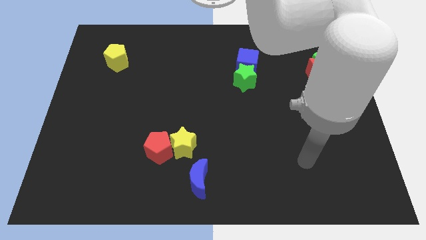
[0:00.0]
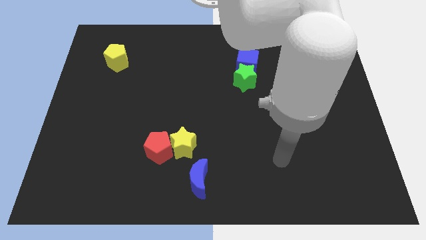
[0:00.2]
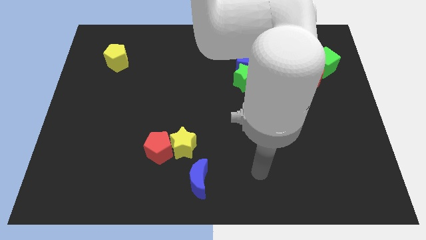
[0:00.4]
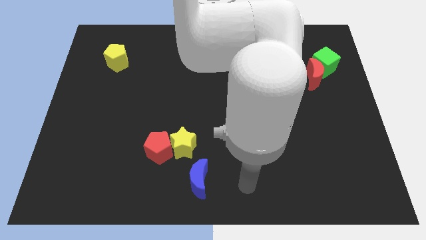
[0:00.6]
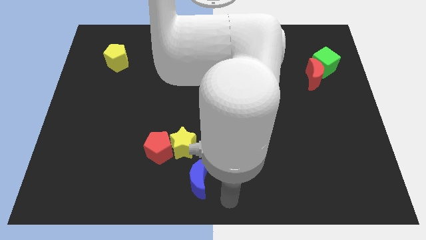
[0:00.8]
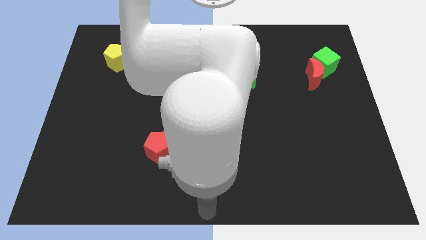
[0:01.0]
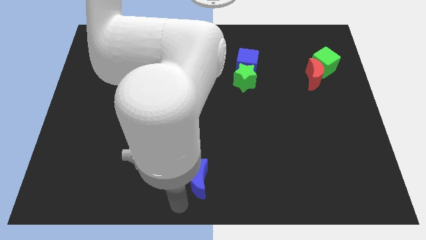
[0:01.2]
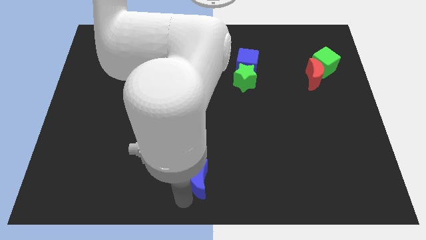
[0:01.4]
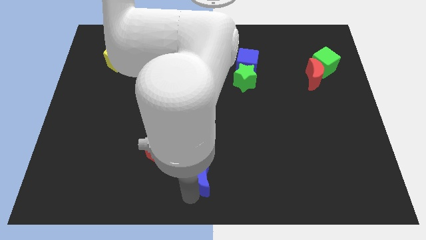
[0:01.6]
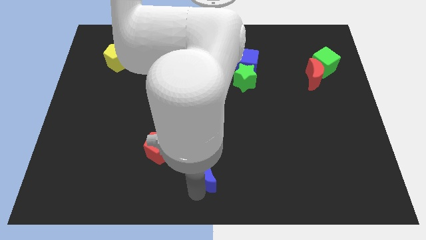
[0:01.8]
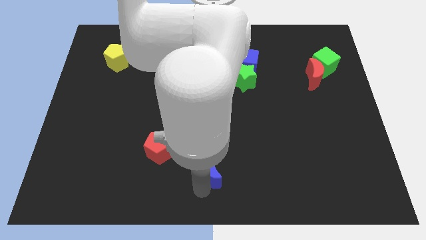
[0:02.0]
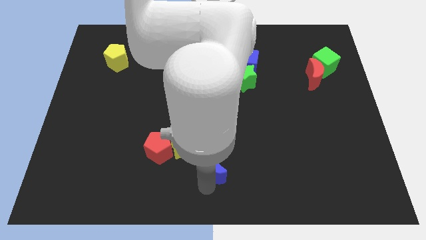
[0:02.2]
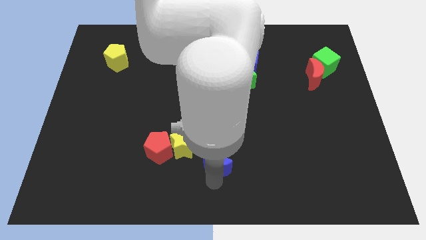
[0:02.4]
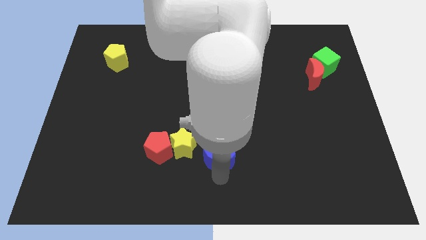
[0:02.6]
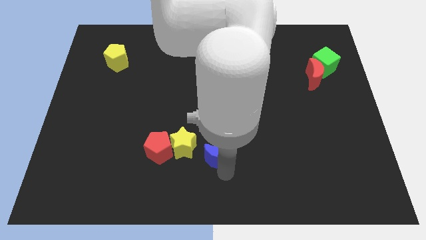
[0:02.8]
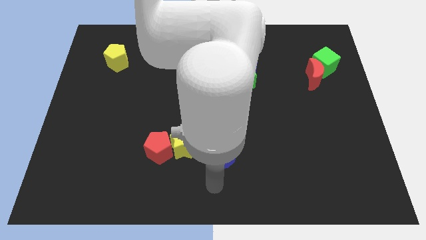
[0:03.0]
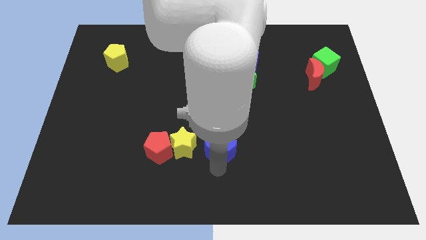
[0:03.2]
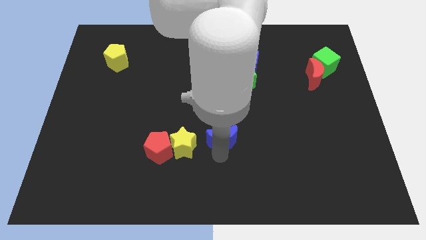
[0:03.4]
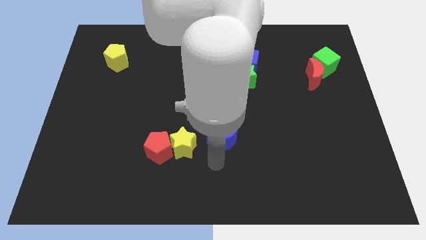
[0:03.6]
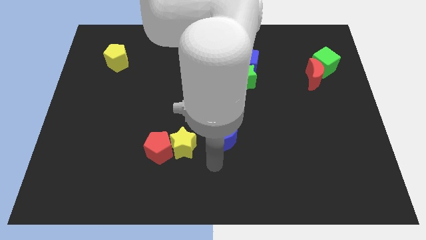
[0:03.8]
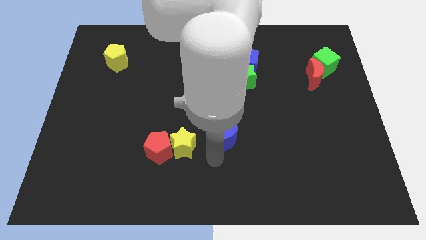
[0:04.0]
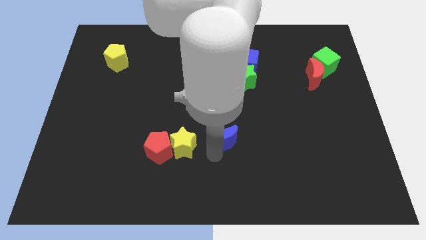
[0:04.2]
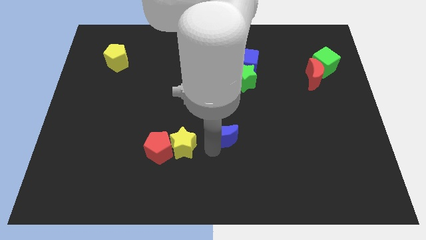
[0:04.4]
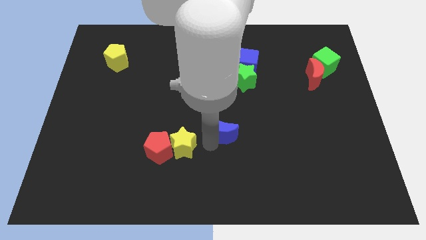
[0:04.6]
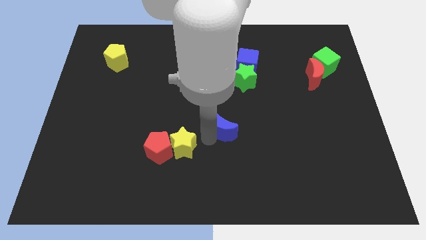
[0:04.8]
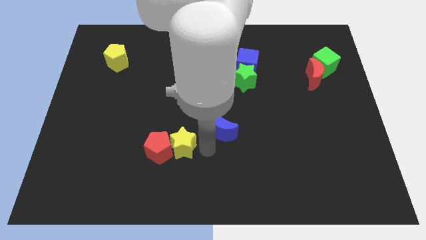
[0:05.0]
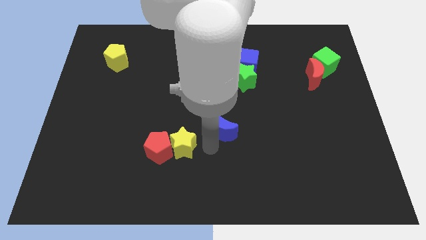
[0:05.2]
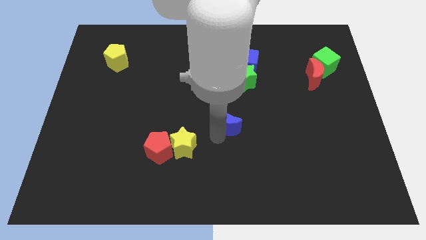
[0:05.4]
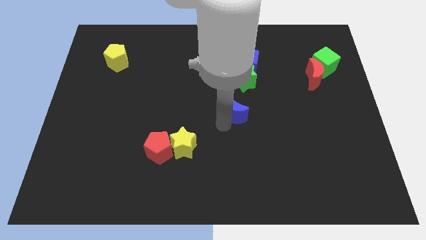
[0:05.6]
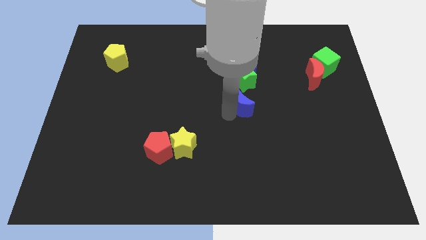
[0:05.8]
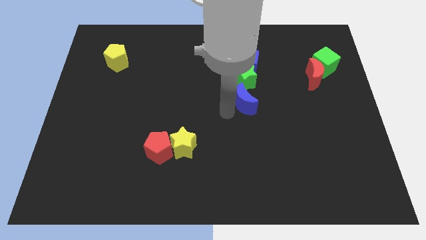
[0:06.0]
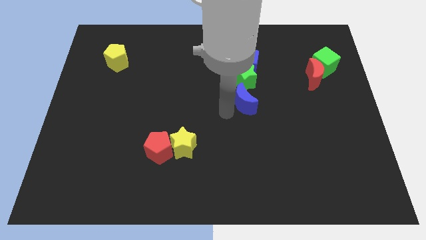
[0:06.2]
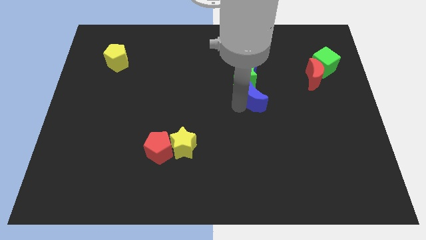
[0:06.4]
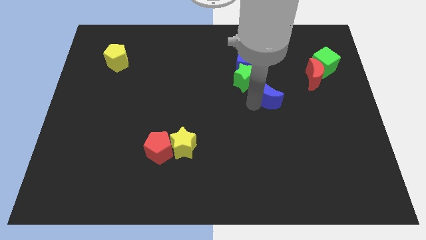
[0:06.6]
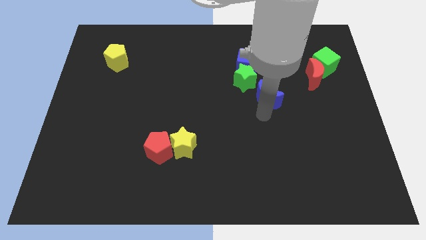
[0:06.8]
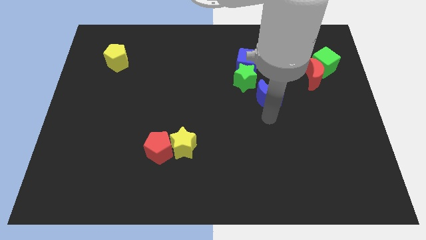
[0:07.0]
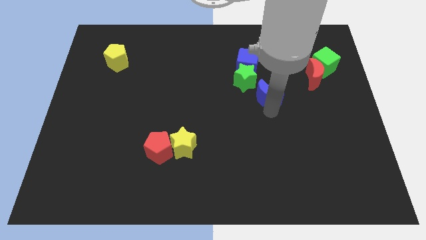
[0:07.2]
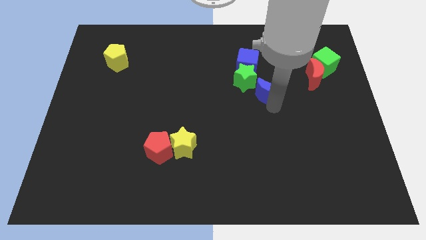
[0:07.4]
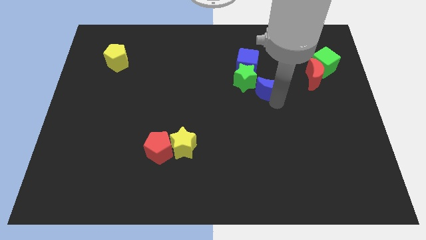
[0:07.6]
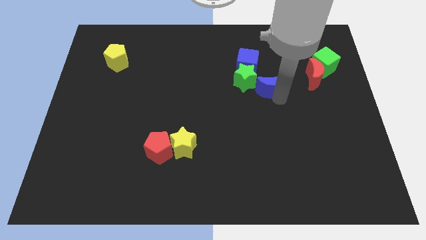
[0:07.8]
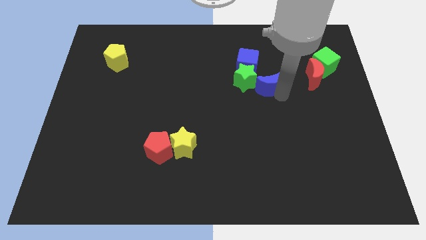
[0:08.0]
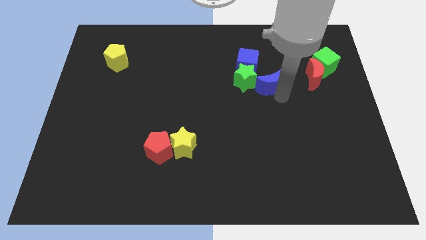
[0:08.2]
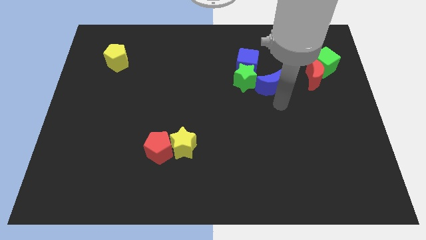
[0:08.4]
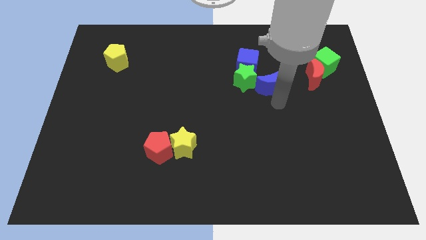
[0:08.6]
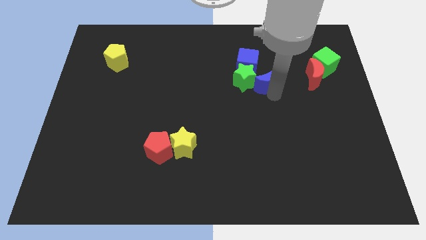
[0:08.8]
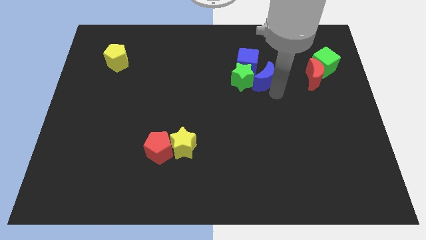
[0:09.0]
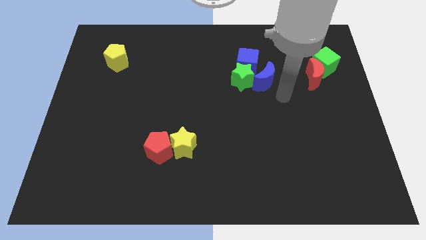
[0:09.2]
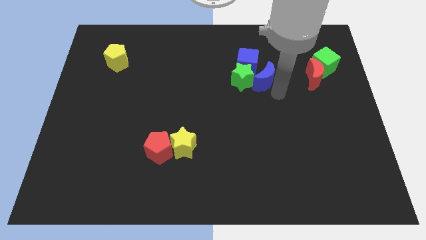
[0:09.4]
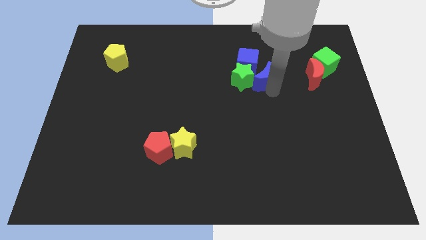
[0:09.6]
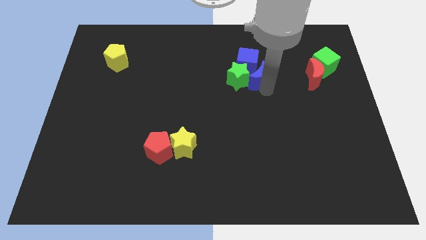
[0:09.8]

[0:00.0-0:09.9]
put the blue moon to the blue cube

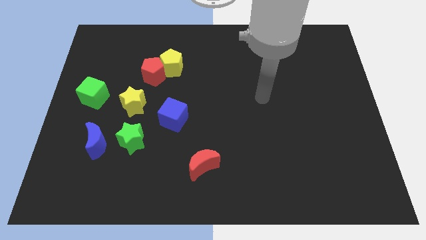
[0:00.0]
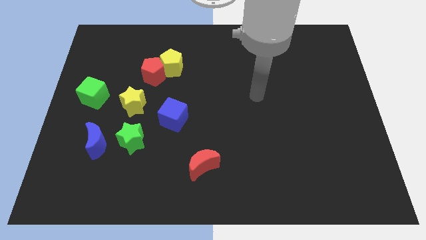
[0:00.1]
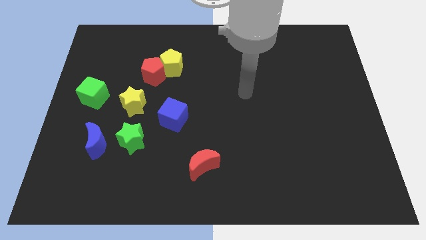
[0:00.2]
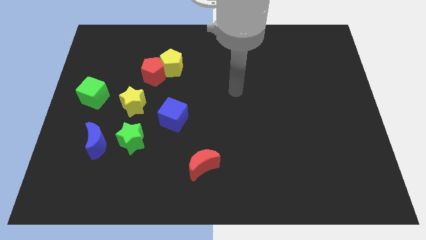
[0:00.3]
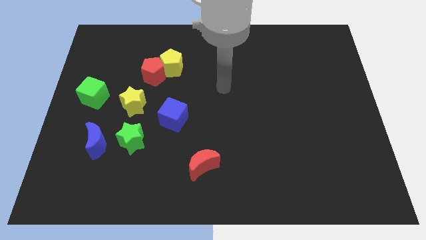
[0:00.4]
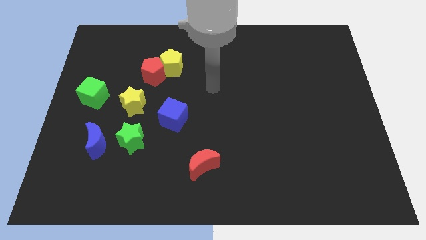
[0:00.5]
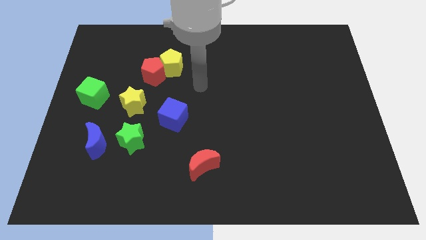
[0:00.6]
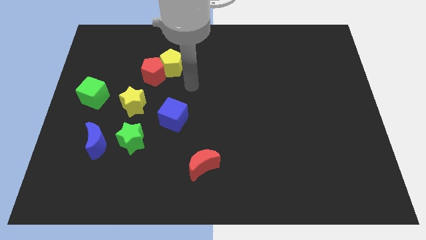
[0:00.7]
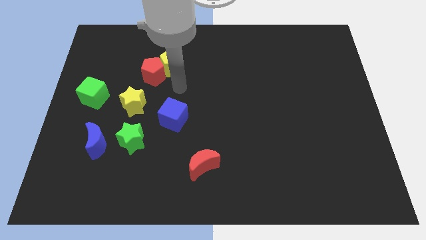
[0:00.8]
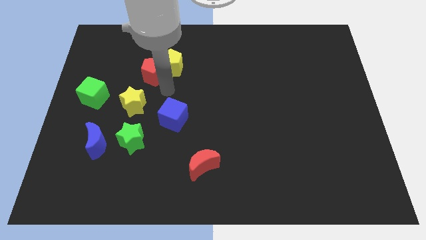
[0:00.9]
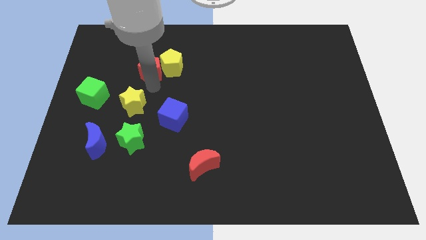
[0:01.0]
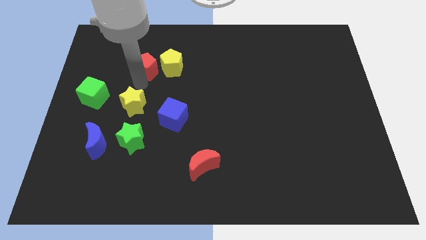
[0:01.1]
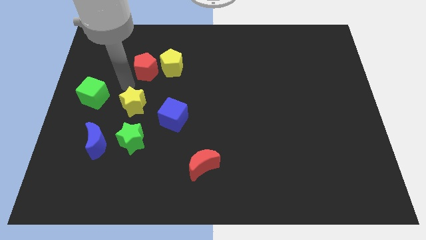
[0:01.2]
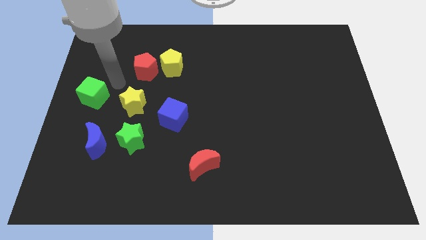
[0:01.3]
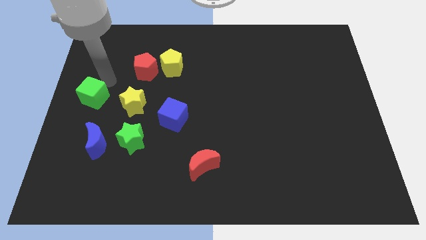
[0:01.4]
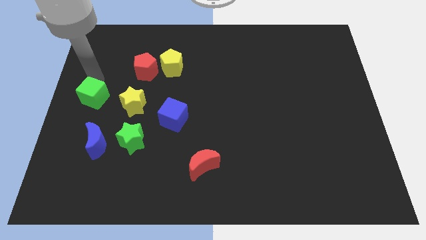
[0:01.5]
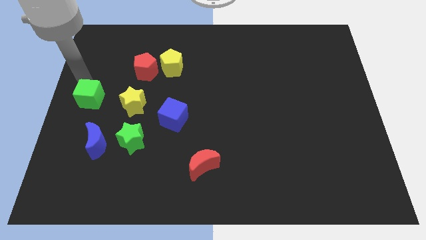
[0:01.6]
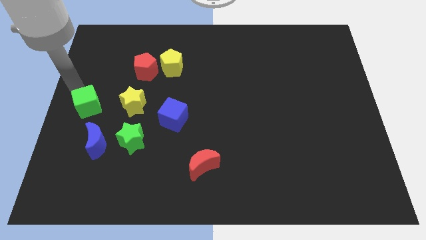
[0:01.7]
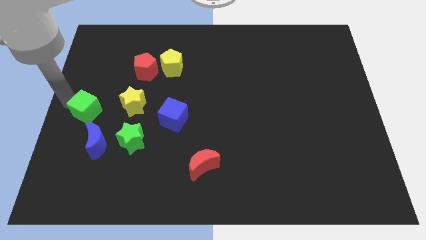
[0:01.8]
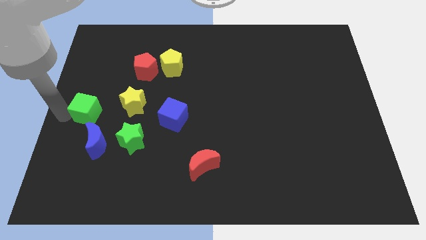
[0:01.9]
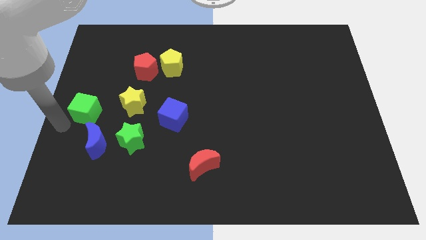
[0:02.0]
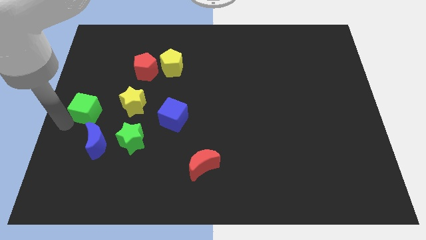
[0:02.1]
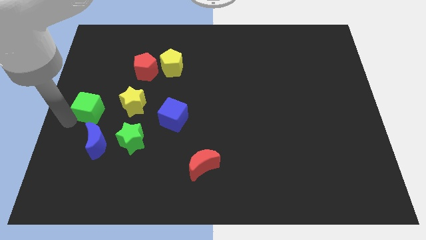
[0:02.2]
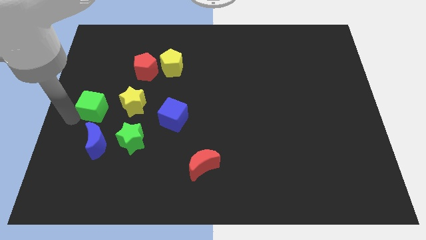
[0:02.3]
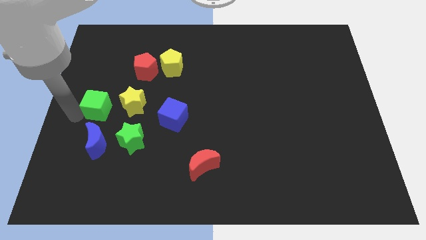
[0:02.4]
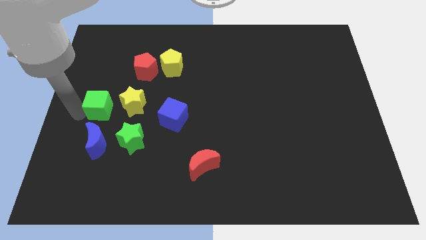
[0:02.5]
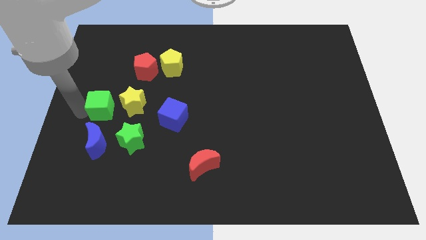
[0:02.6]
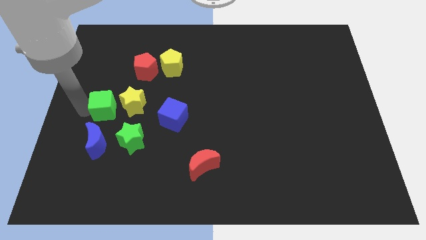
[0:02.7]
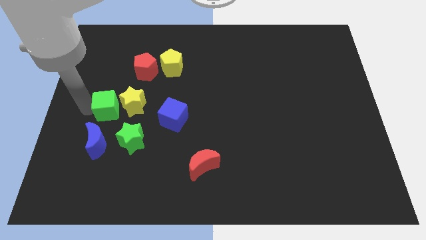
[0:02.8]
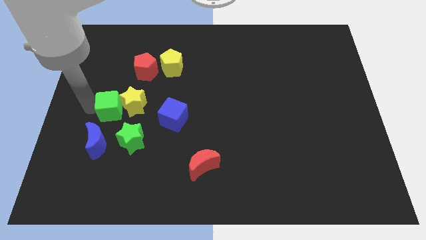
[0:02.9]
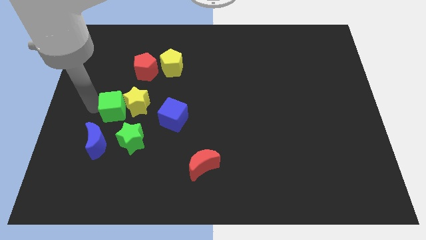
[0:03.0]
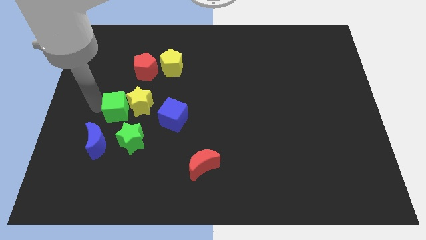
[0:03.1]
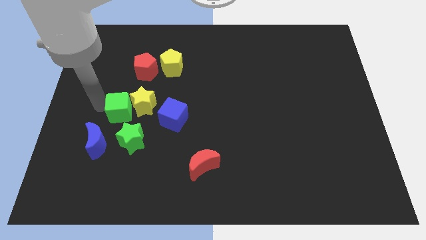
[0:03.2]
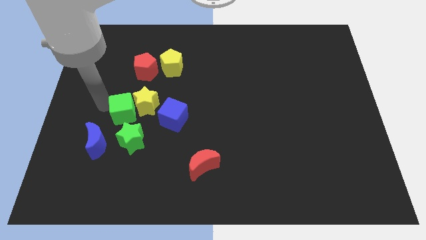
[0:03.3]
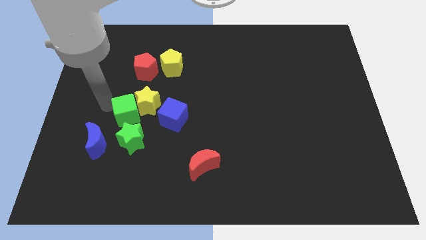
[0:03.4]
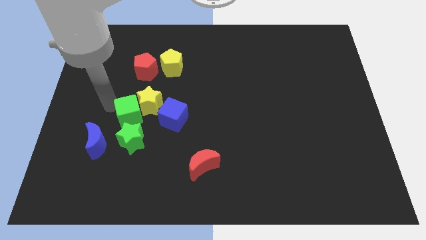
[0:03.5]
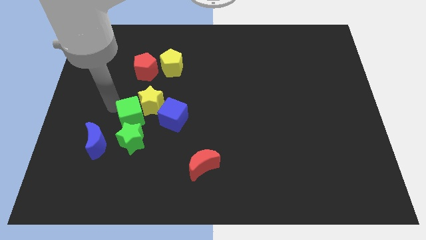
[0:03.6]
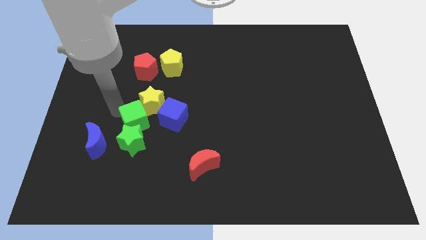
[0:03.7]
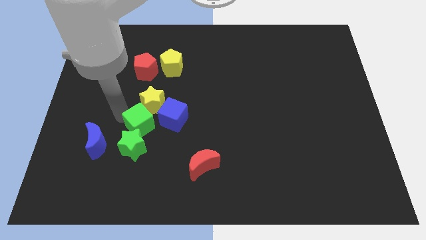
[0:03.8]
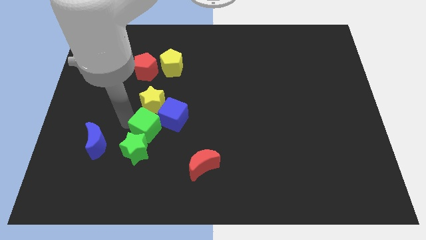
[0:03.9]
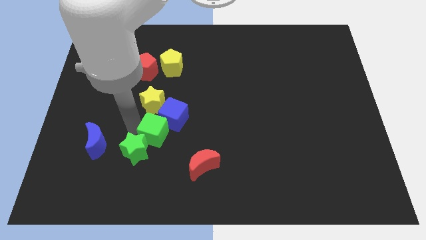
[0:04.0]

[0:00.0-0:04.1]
move the green cube next to the blue cube
